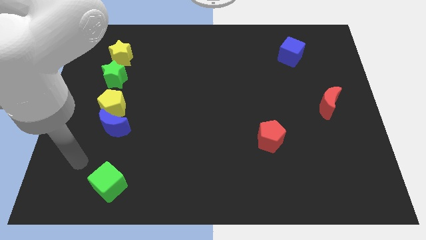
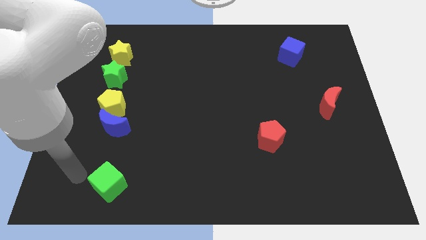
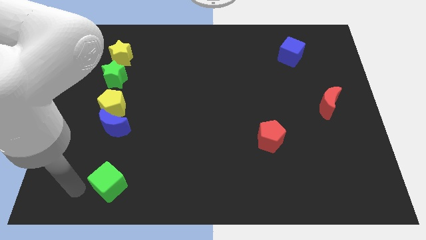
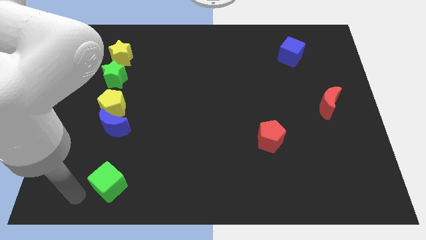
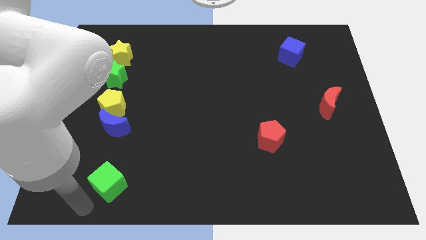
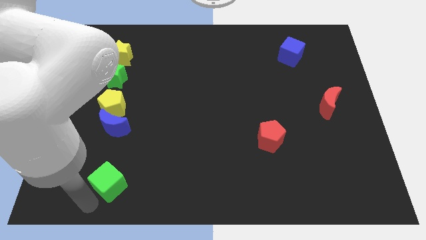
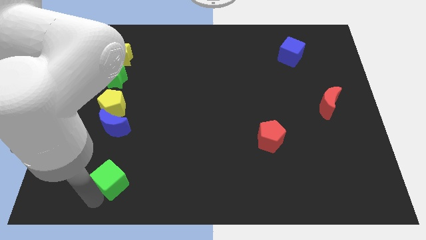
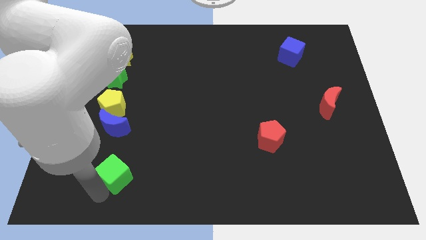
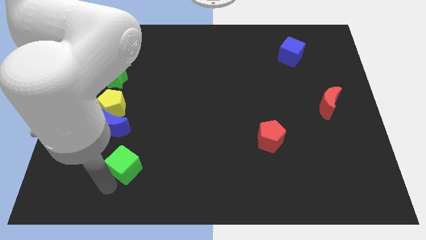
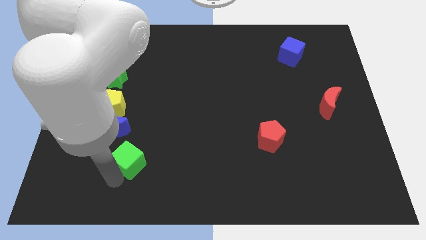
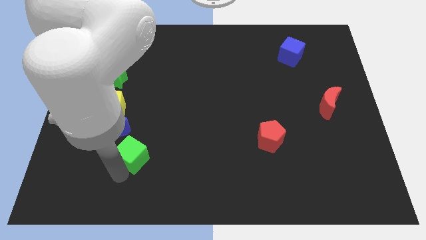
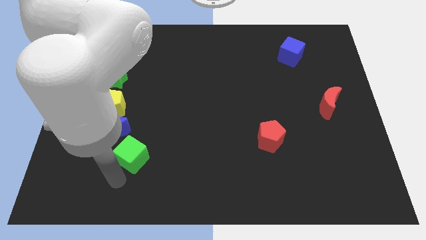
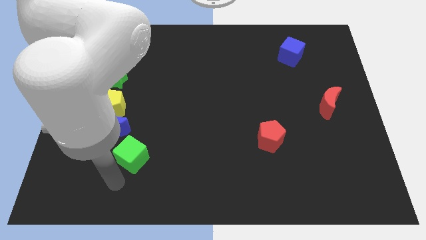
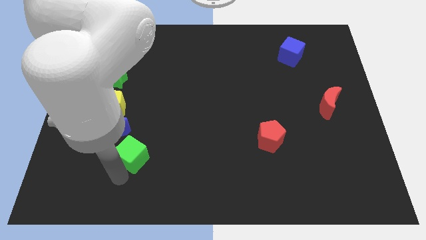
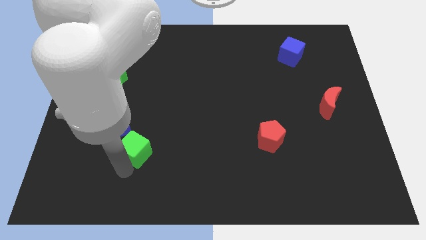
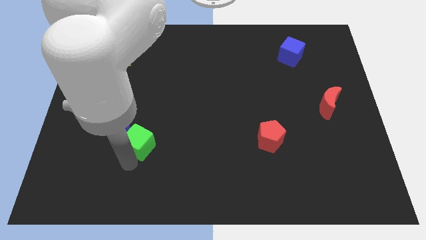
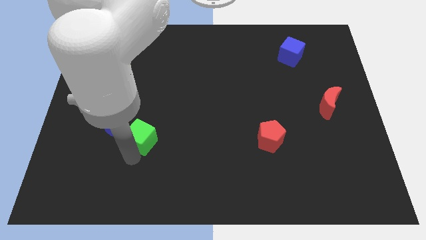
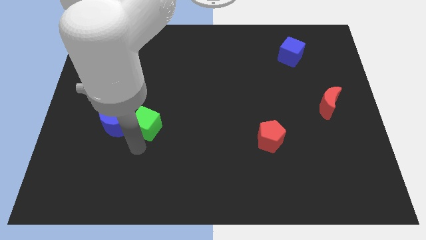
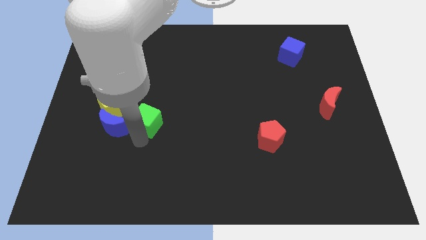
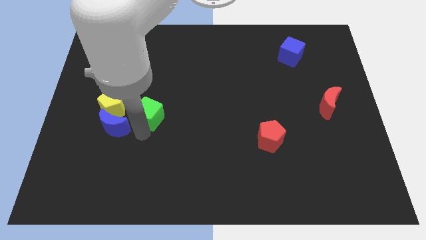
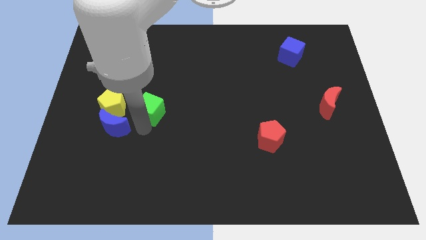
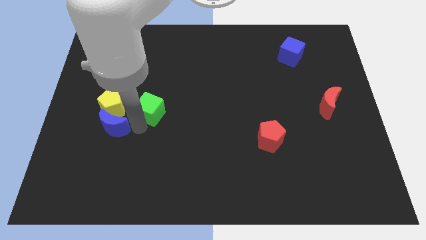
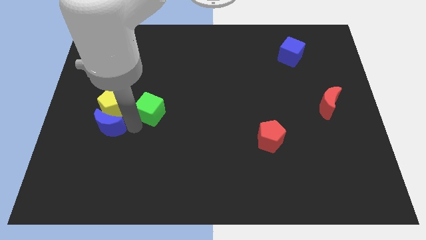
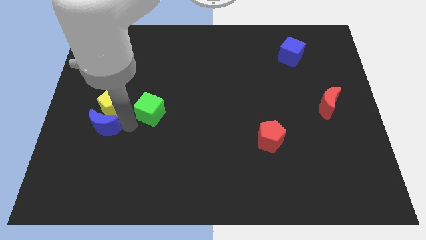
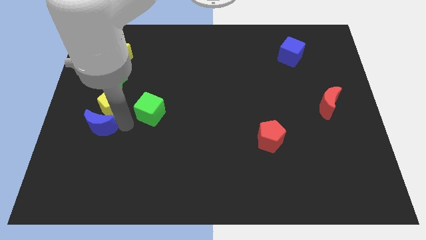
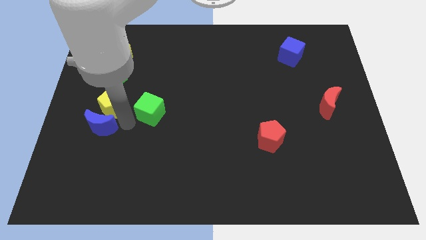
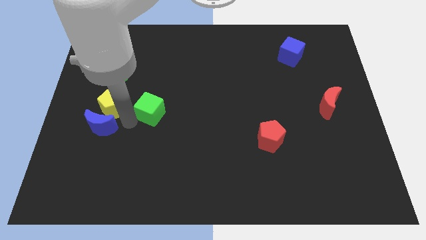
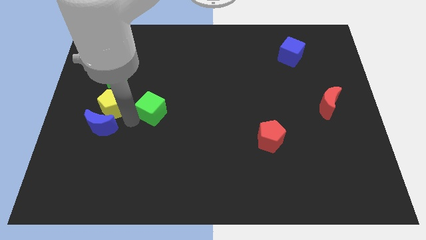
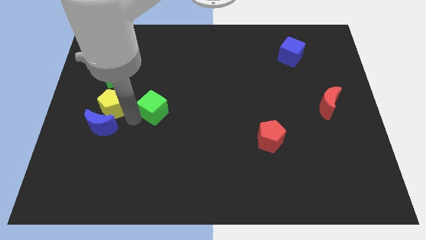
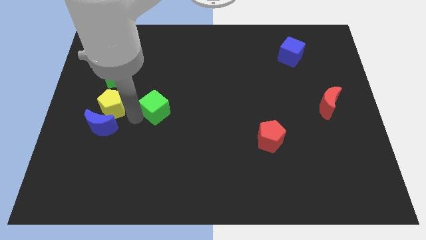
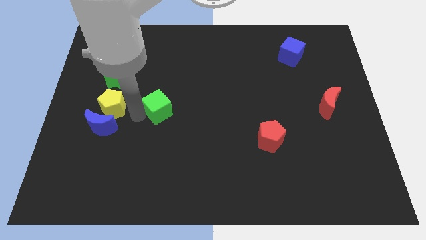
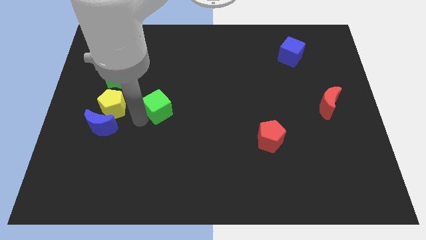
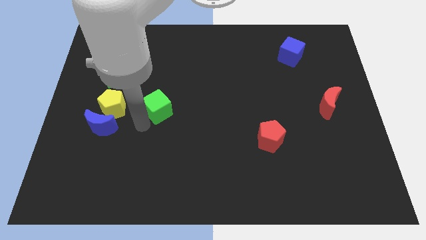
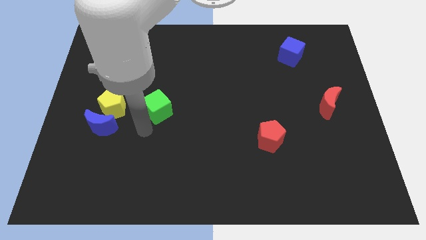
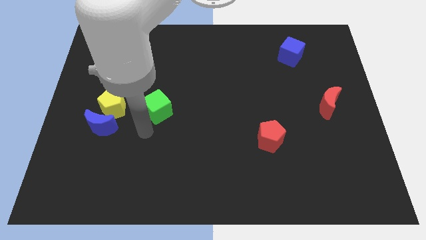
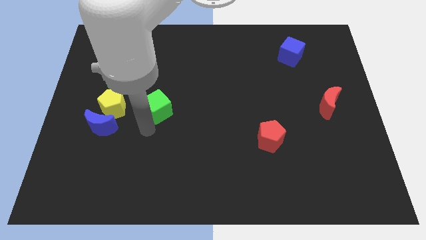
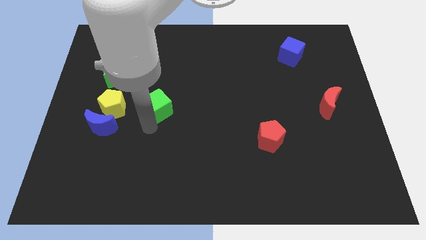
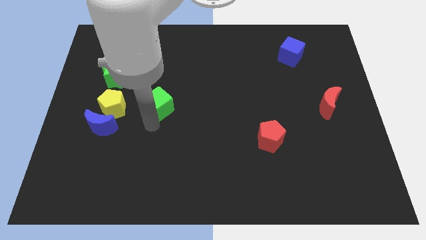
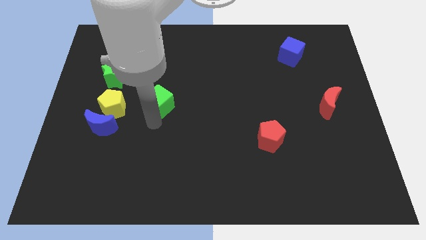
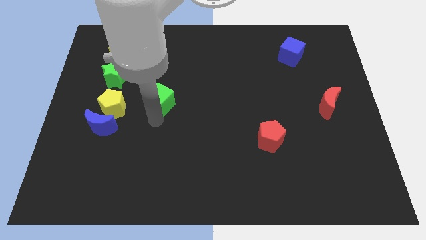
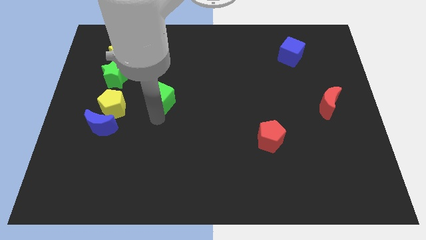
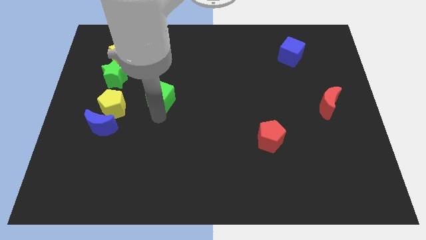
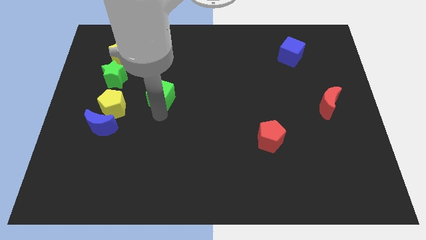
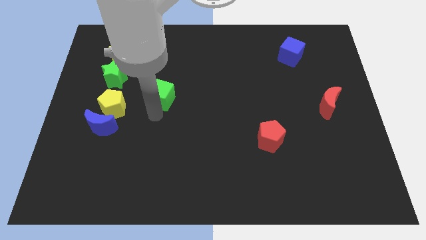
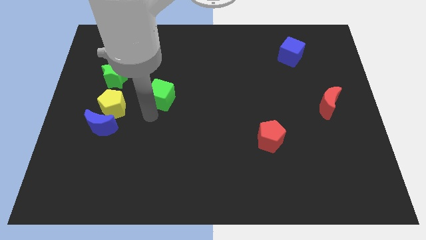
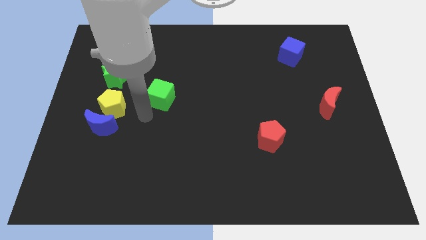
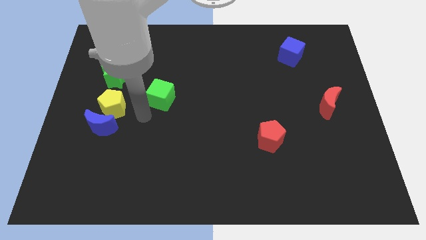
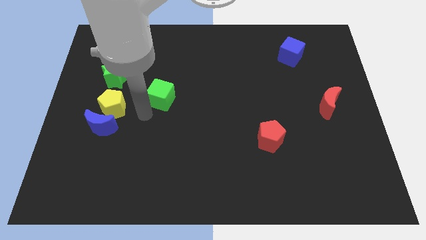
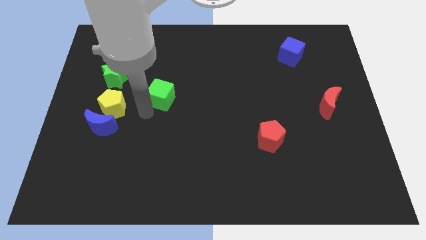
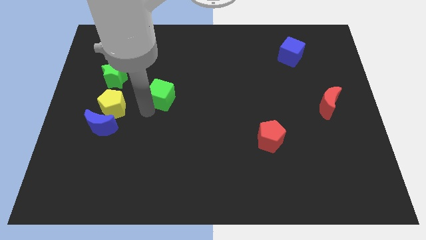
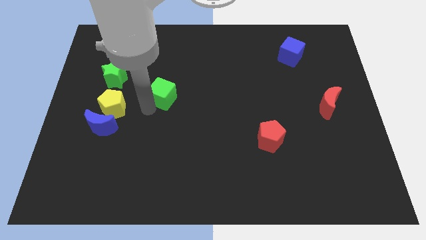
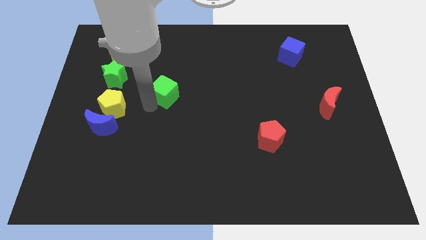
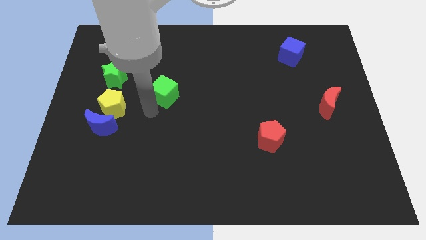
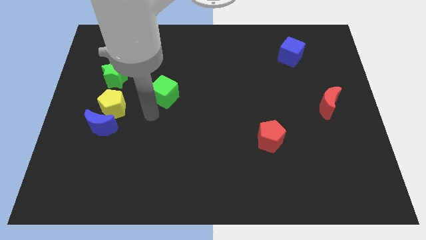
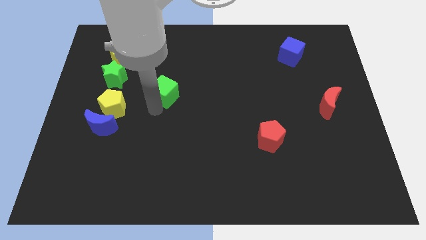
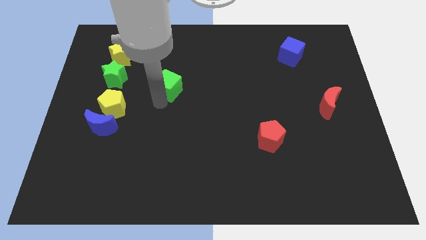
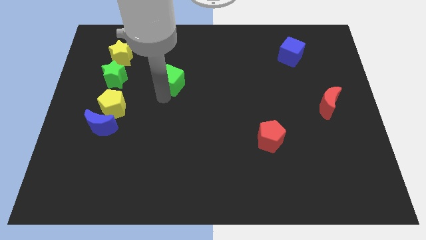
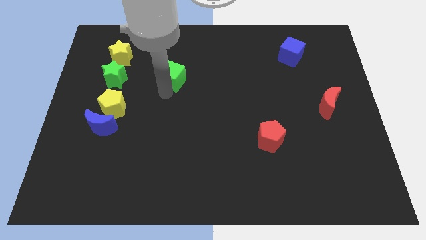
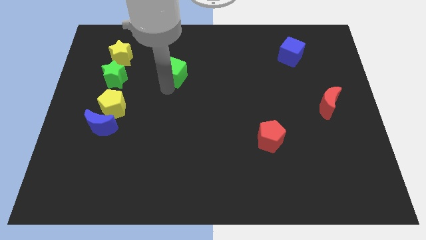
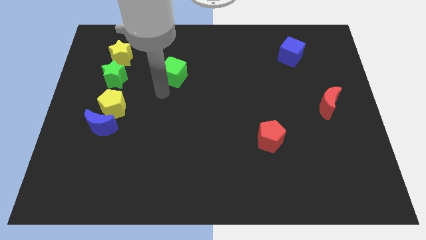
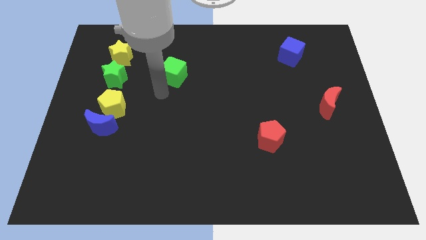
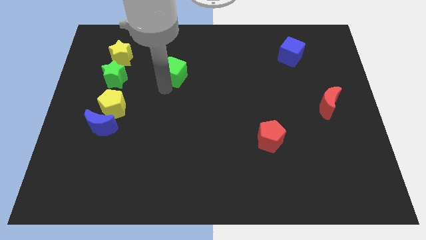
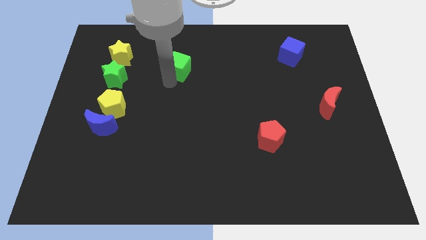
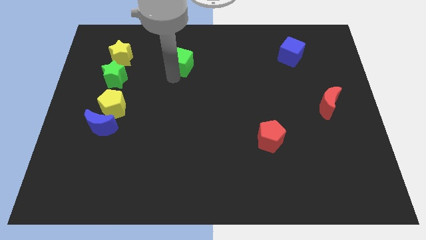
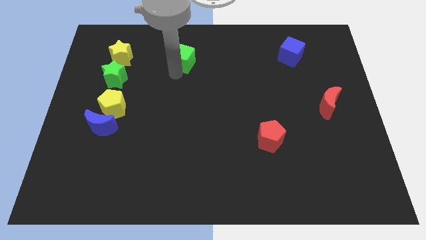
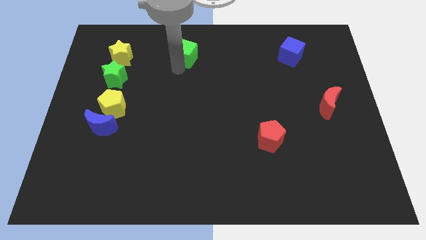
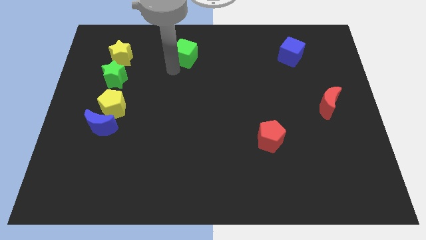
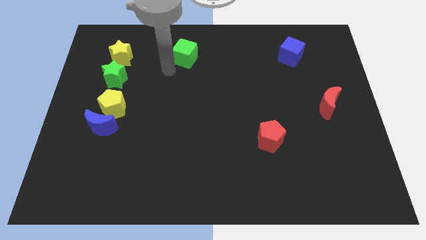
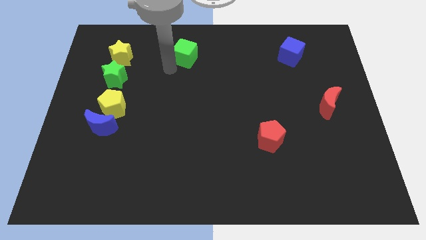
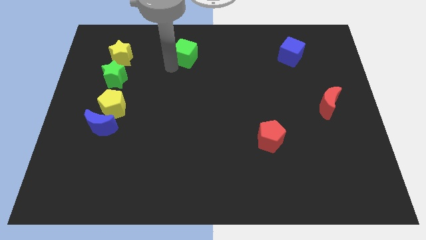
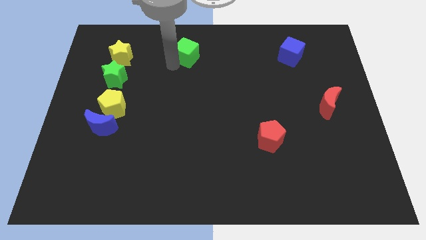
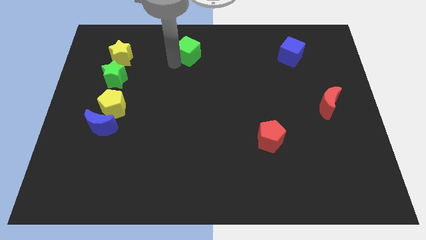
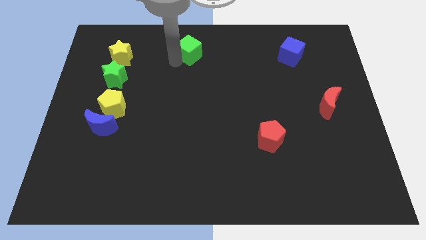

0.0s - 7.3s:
push the green cube to the towards your base
